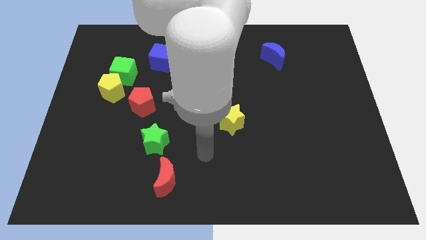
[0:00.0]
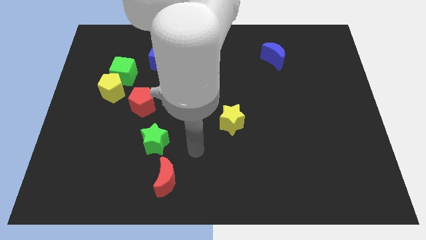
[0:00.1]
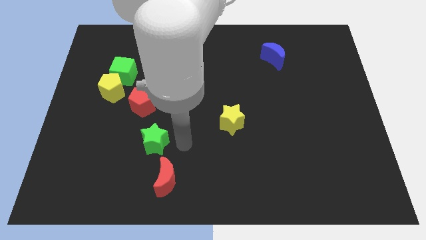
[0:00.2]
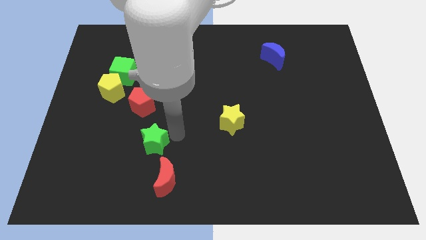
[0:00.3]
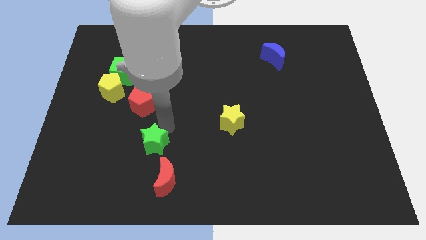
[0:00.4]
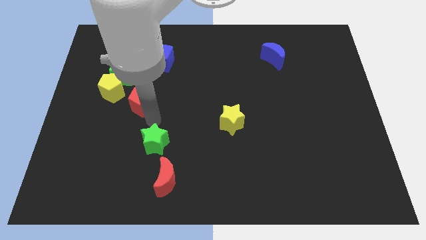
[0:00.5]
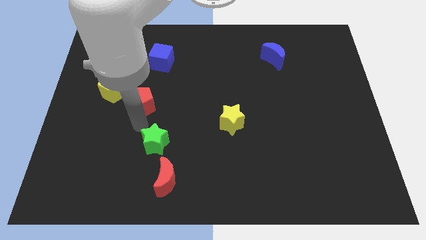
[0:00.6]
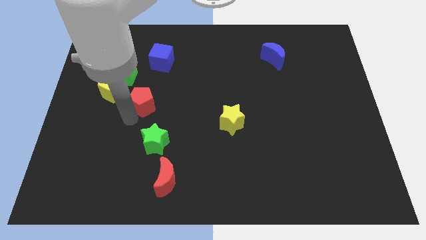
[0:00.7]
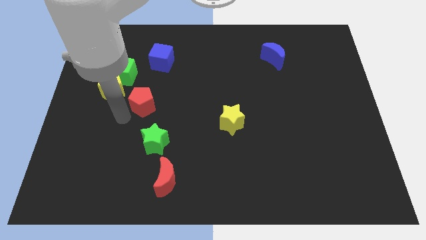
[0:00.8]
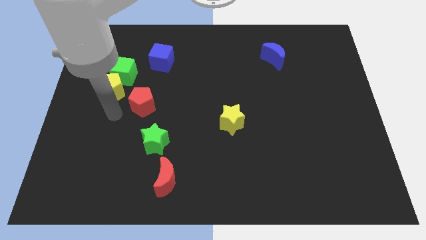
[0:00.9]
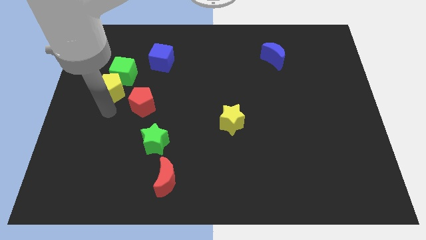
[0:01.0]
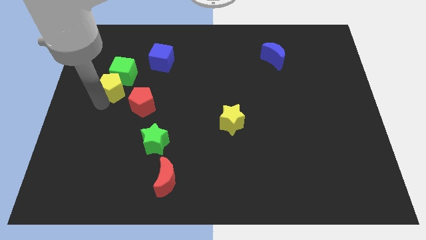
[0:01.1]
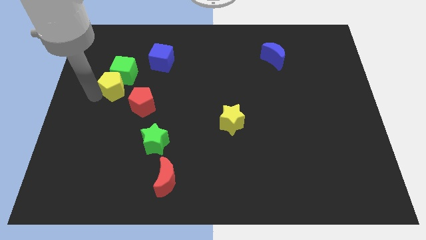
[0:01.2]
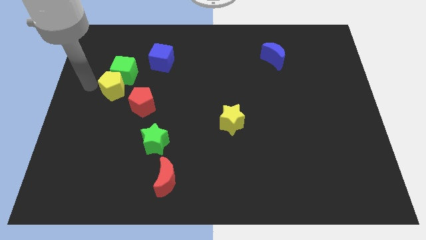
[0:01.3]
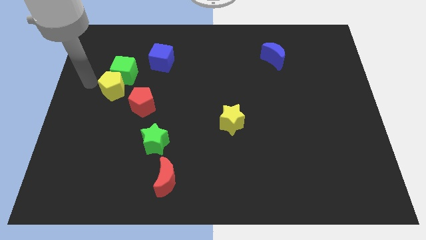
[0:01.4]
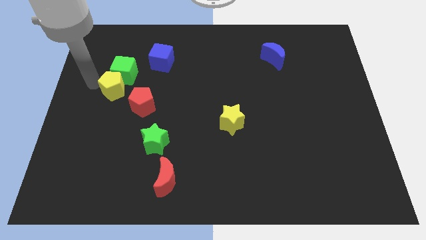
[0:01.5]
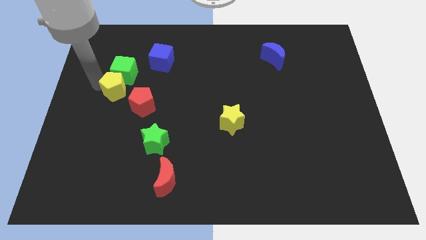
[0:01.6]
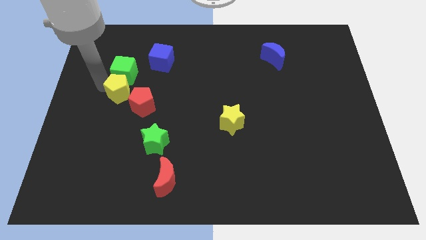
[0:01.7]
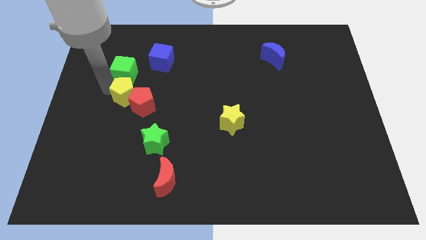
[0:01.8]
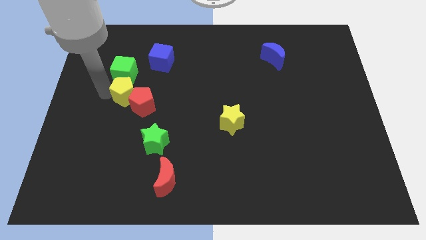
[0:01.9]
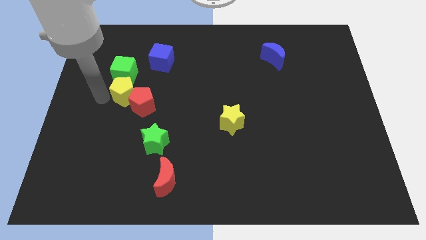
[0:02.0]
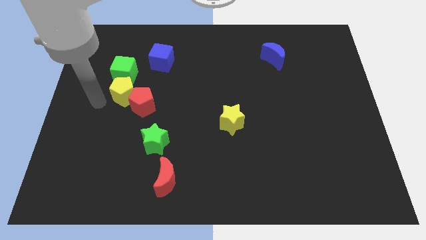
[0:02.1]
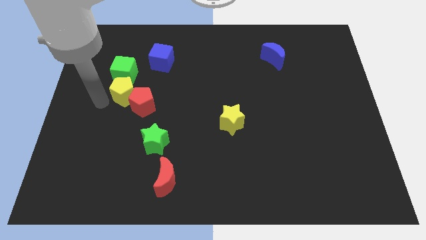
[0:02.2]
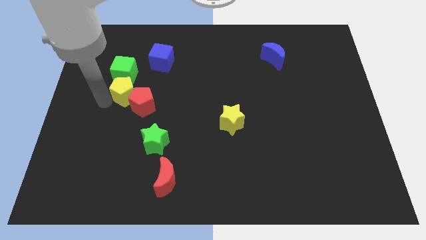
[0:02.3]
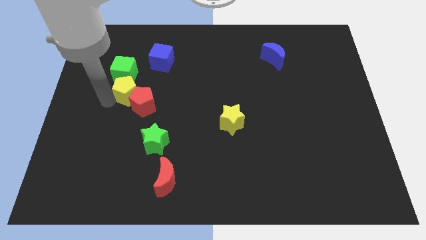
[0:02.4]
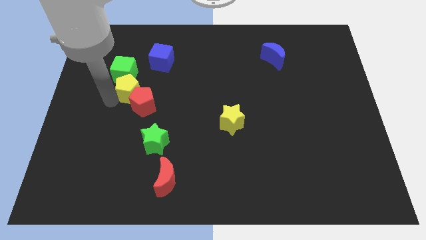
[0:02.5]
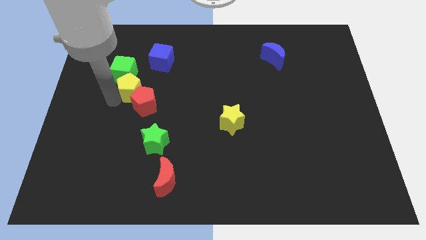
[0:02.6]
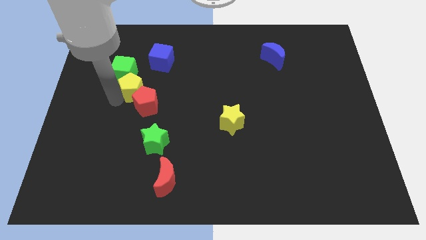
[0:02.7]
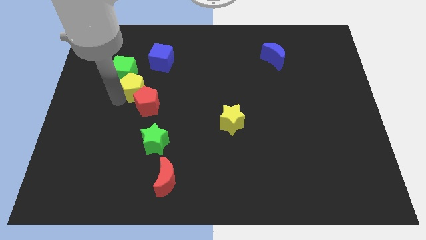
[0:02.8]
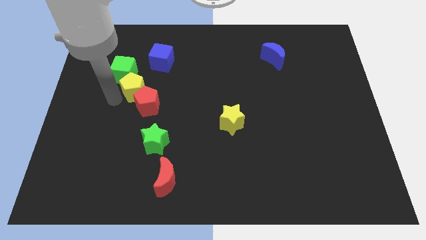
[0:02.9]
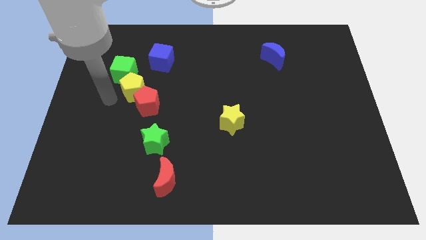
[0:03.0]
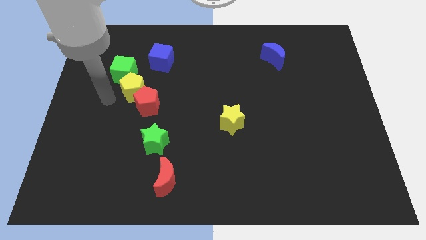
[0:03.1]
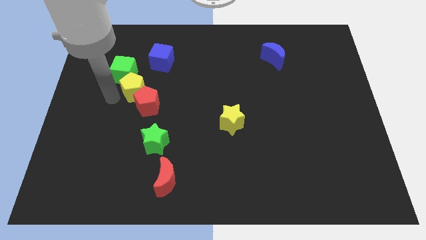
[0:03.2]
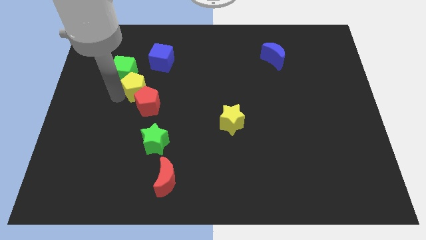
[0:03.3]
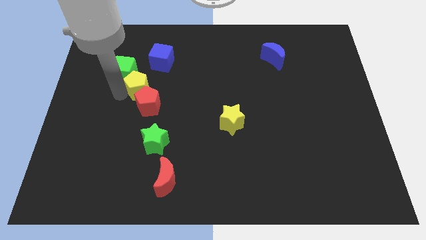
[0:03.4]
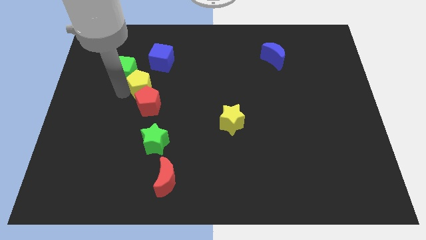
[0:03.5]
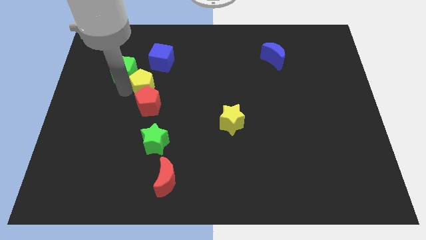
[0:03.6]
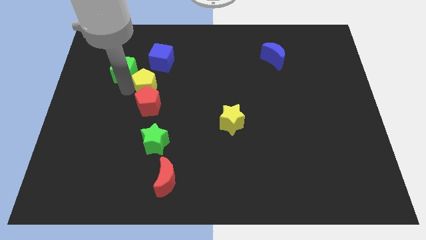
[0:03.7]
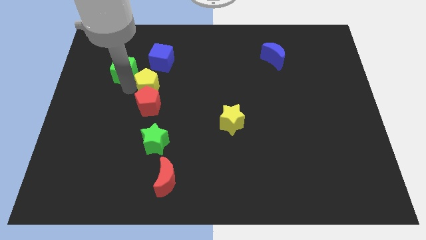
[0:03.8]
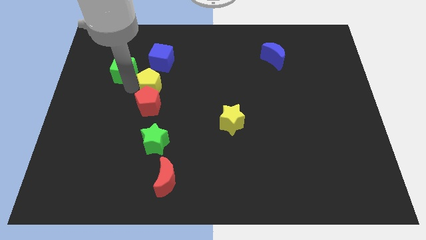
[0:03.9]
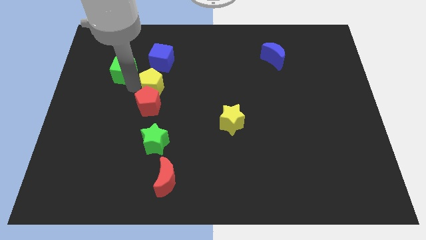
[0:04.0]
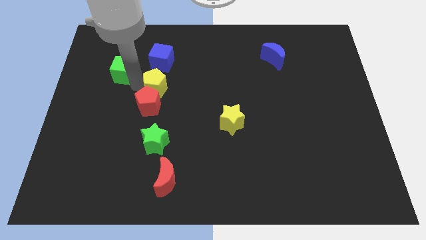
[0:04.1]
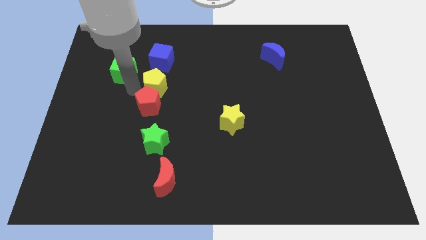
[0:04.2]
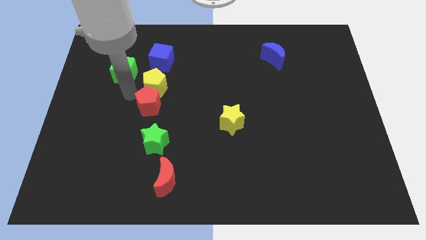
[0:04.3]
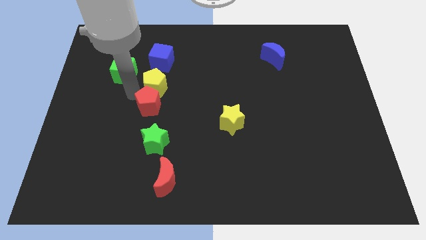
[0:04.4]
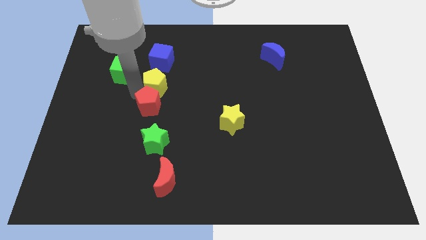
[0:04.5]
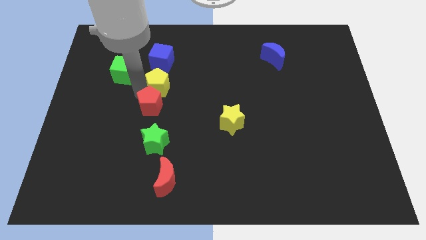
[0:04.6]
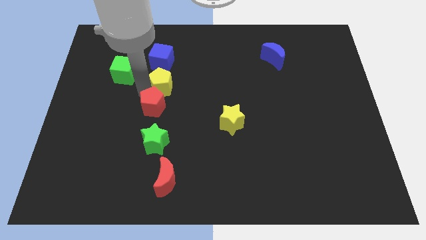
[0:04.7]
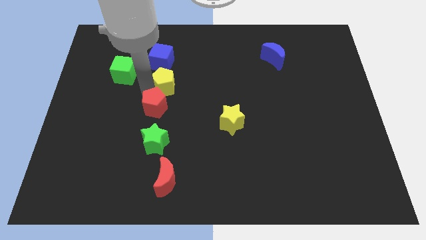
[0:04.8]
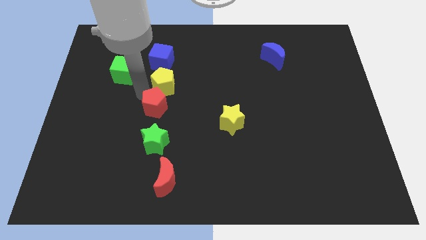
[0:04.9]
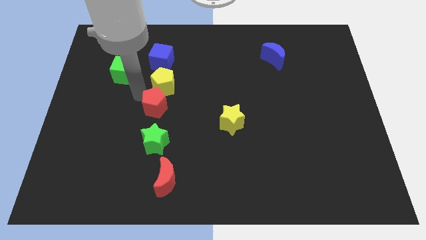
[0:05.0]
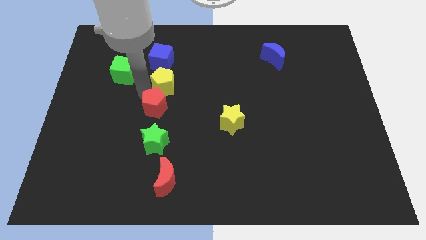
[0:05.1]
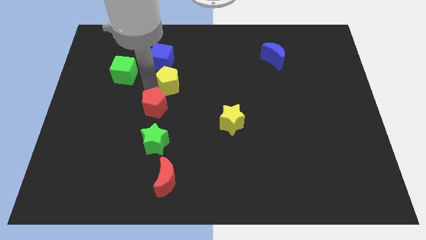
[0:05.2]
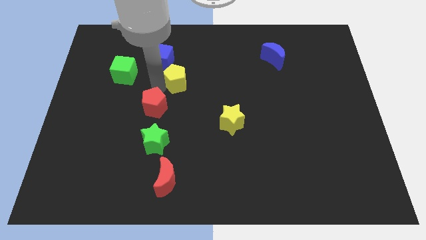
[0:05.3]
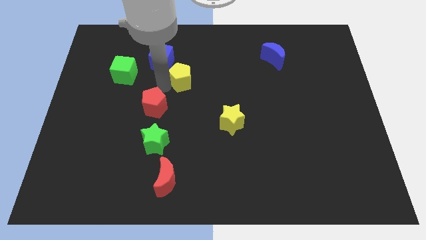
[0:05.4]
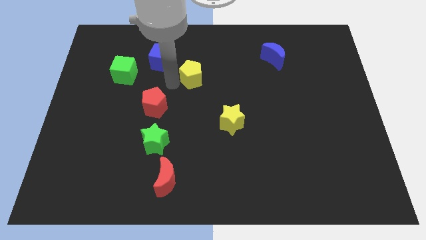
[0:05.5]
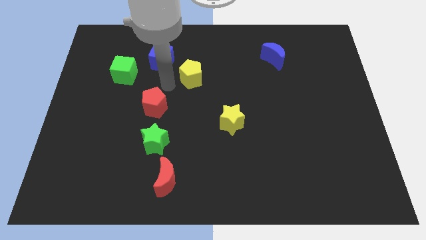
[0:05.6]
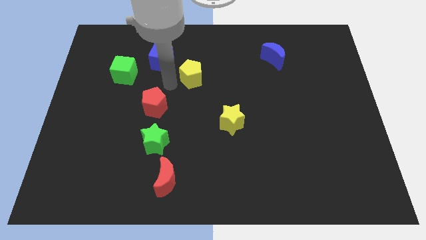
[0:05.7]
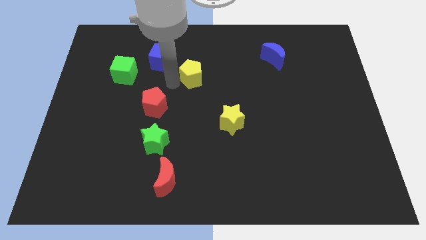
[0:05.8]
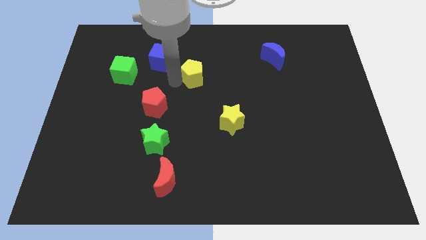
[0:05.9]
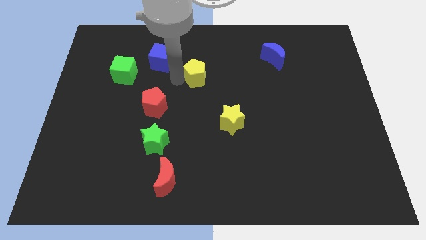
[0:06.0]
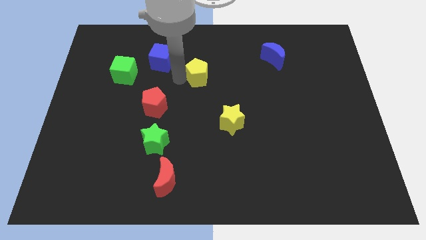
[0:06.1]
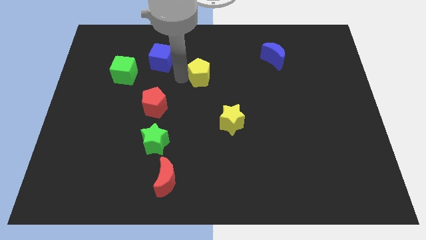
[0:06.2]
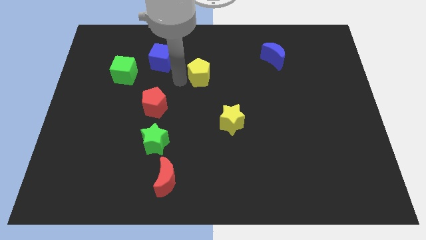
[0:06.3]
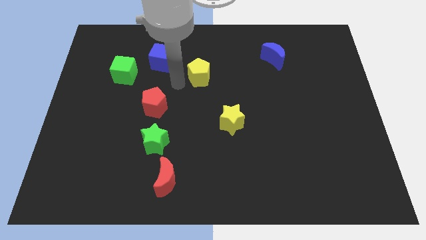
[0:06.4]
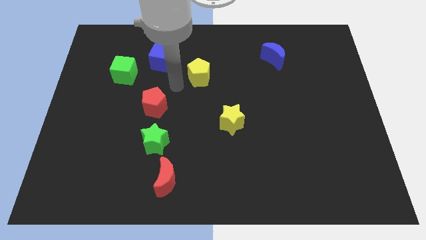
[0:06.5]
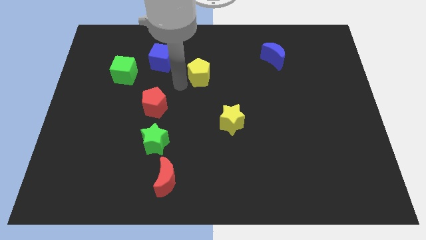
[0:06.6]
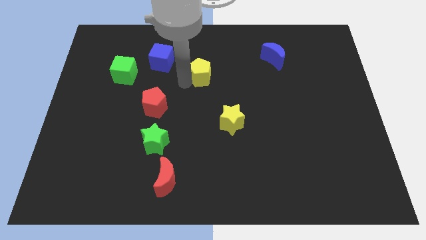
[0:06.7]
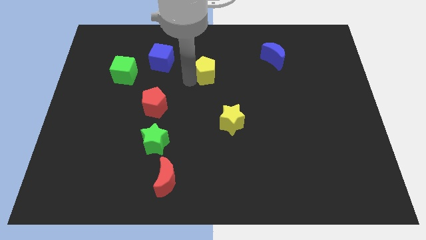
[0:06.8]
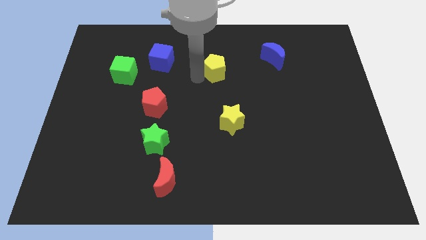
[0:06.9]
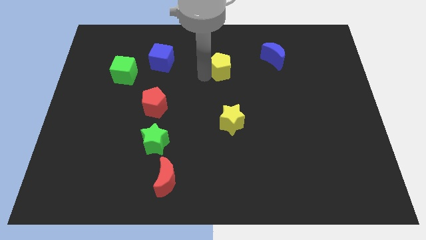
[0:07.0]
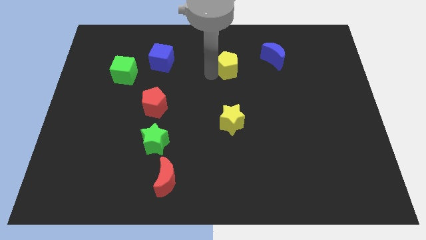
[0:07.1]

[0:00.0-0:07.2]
slide the yellow pentagon left of the blue moon
